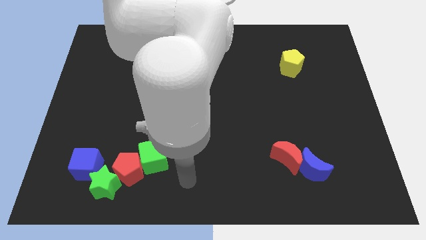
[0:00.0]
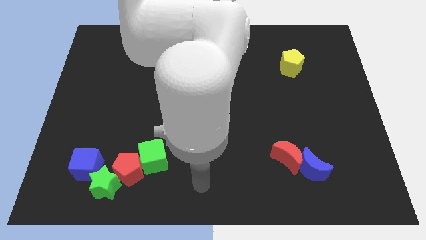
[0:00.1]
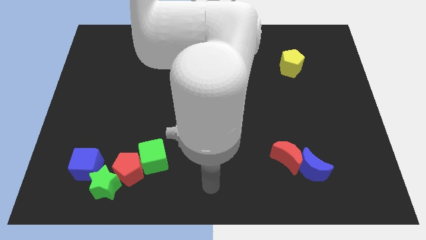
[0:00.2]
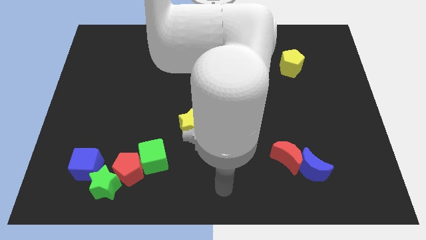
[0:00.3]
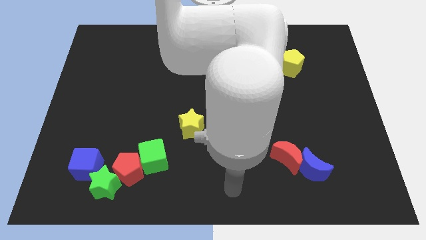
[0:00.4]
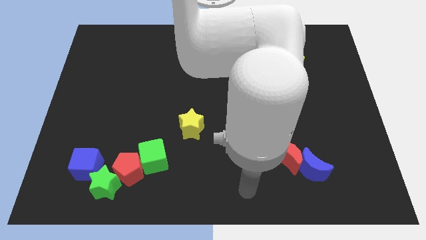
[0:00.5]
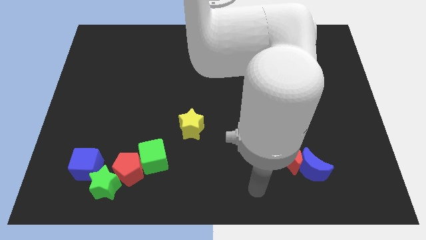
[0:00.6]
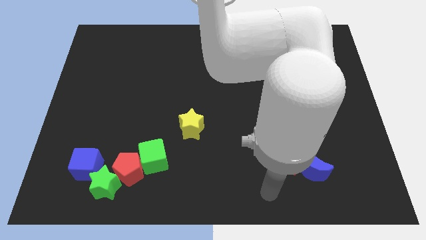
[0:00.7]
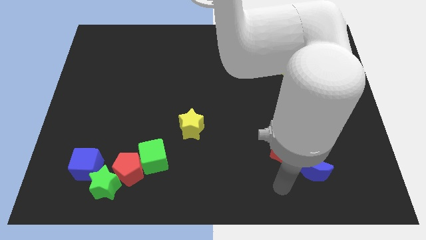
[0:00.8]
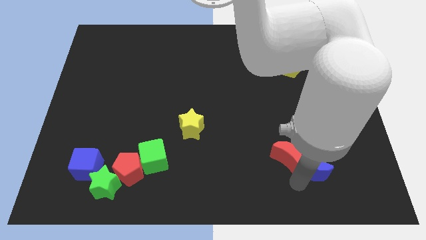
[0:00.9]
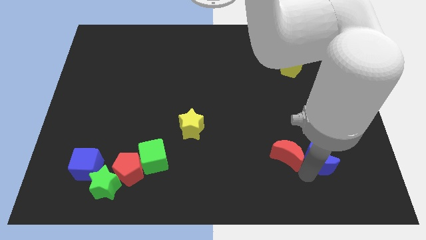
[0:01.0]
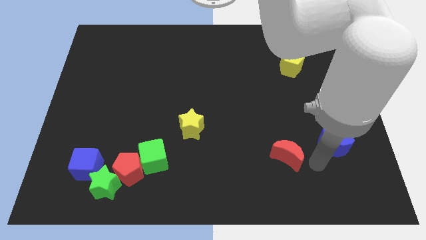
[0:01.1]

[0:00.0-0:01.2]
separate the red moon from the blue moon

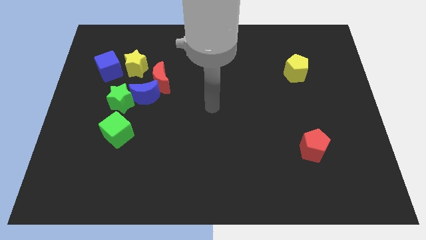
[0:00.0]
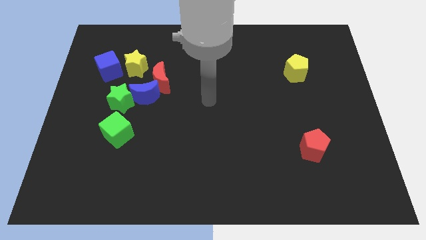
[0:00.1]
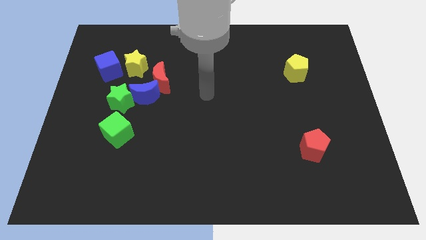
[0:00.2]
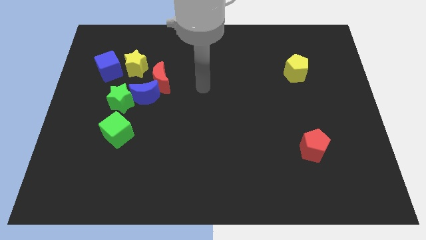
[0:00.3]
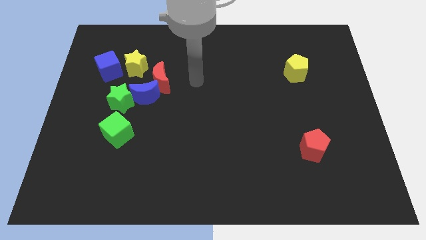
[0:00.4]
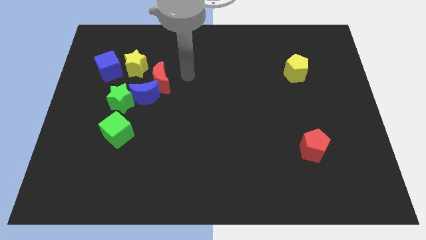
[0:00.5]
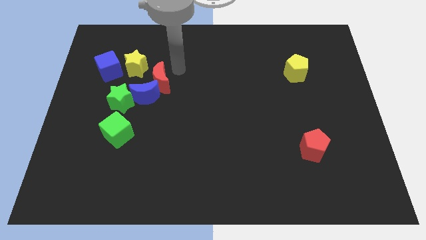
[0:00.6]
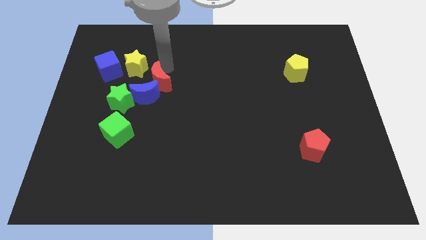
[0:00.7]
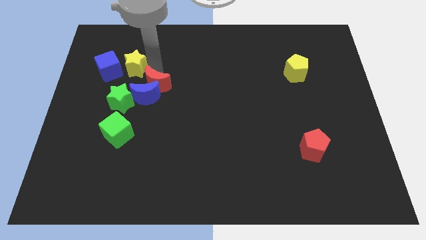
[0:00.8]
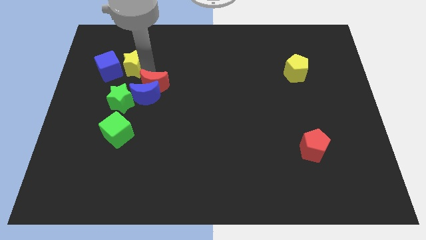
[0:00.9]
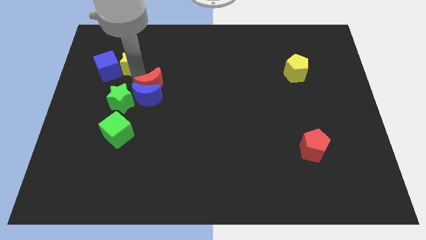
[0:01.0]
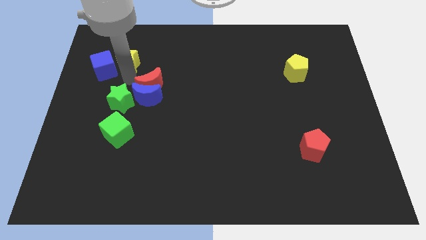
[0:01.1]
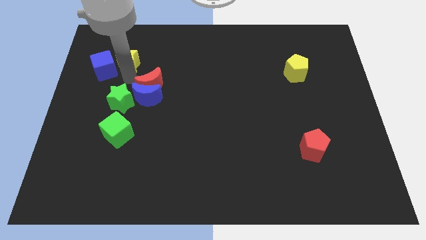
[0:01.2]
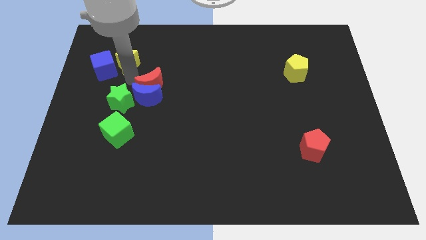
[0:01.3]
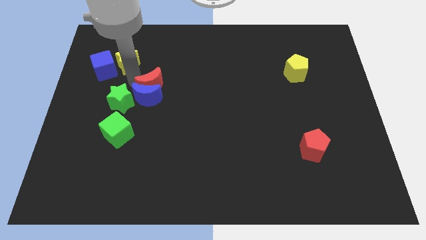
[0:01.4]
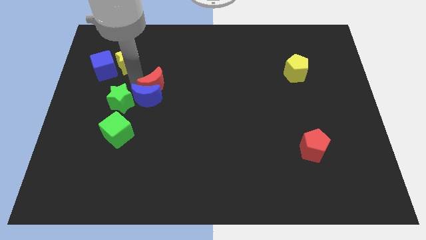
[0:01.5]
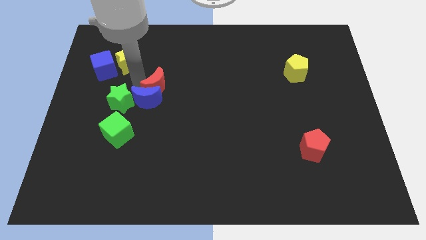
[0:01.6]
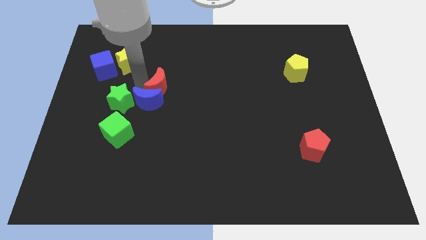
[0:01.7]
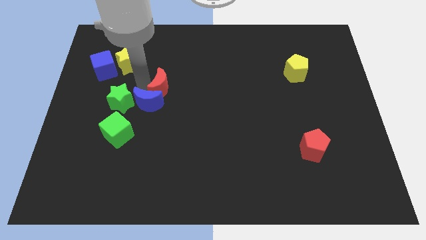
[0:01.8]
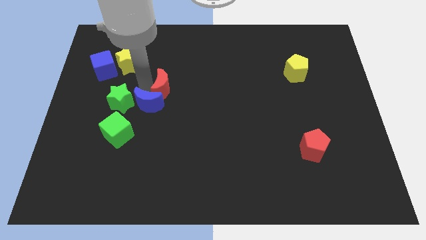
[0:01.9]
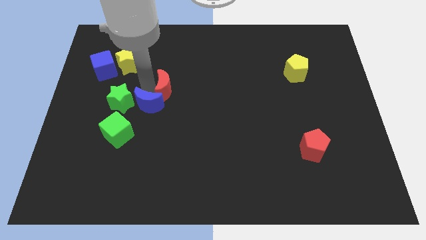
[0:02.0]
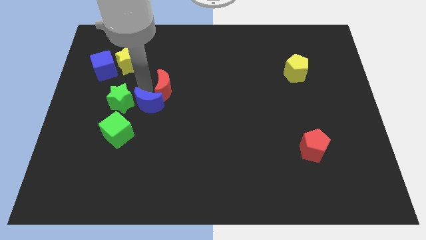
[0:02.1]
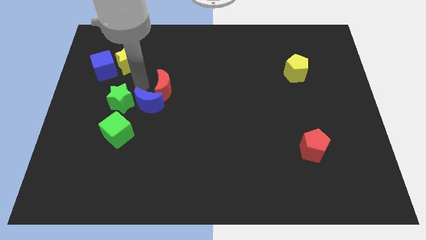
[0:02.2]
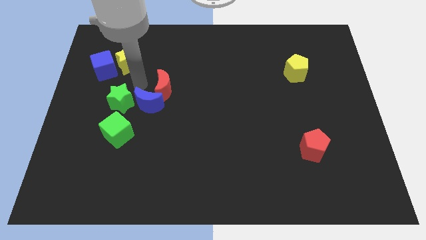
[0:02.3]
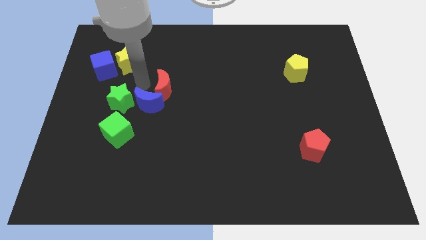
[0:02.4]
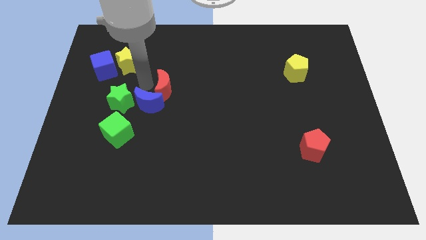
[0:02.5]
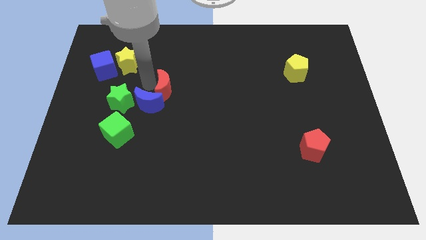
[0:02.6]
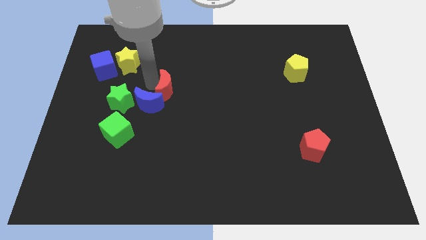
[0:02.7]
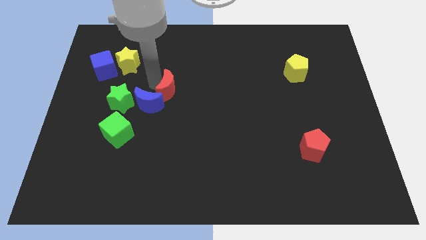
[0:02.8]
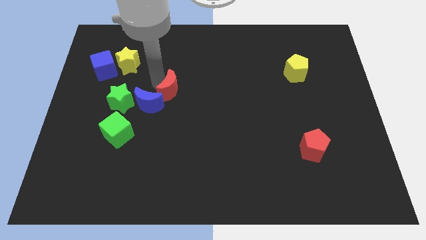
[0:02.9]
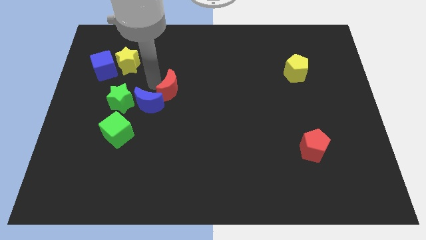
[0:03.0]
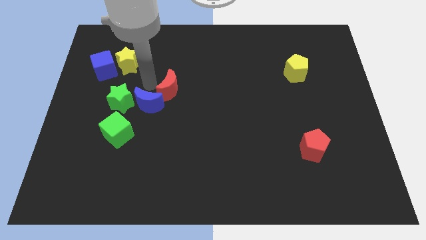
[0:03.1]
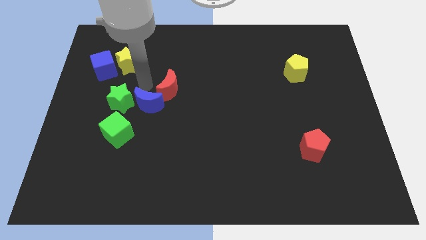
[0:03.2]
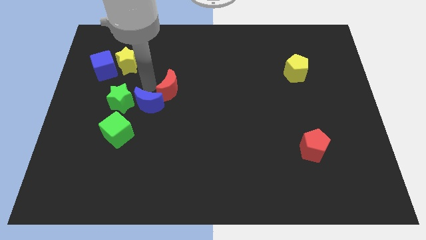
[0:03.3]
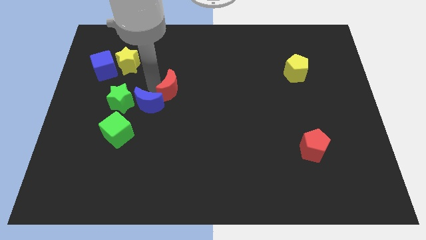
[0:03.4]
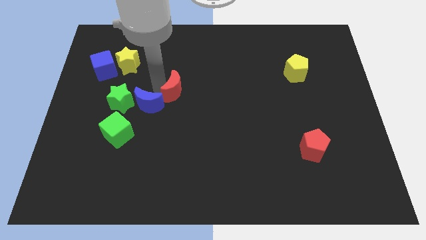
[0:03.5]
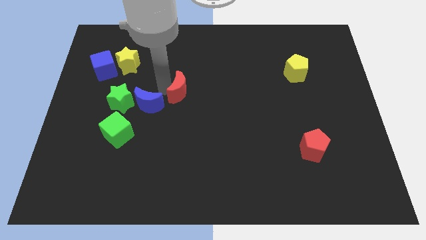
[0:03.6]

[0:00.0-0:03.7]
pull the red moon apart from the blue moon and yellow star

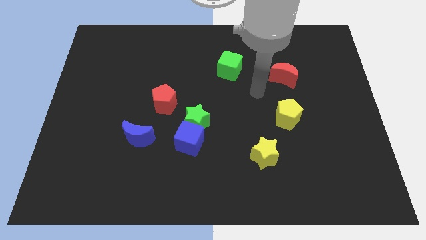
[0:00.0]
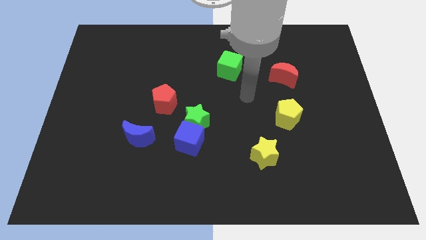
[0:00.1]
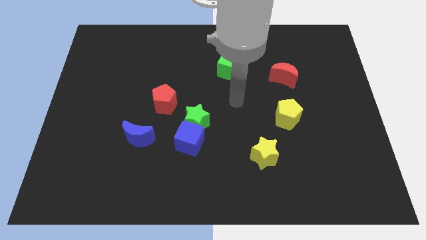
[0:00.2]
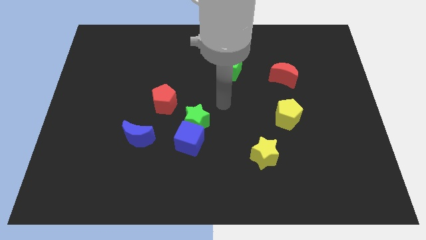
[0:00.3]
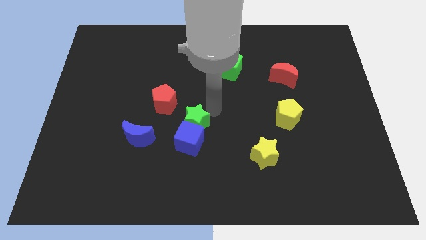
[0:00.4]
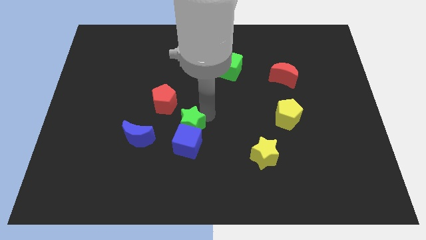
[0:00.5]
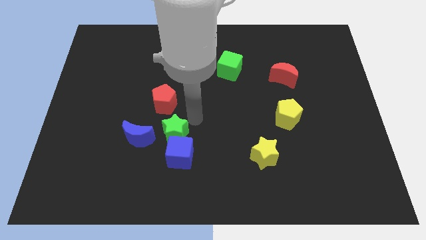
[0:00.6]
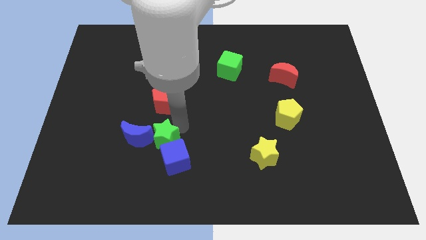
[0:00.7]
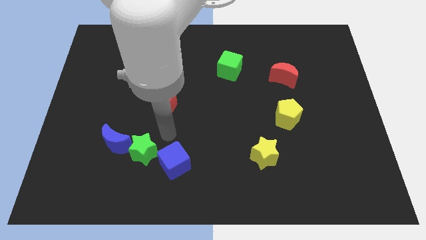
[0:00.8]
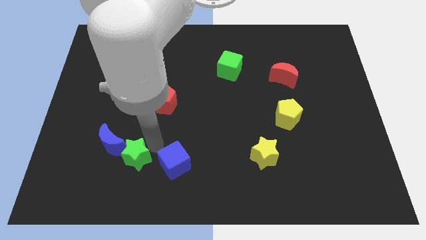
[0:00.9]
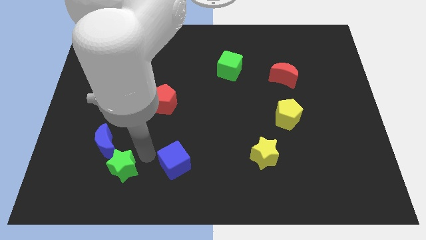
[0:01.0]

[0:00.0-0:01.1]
separate the blue cube from the green star

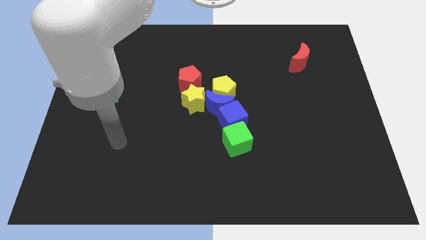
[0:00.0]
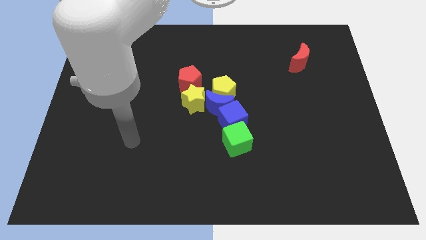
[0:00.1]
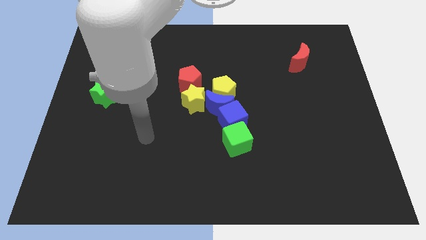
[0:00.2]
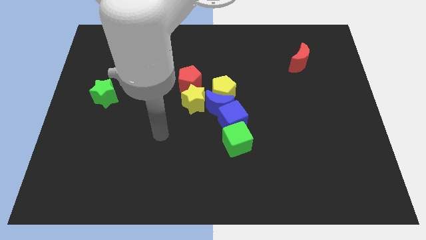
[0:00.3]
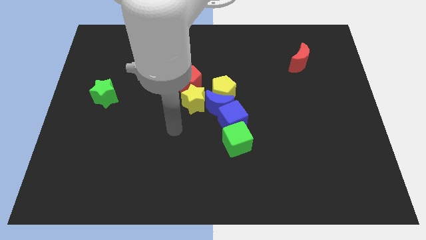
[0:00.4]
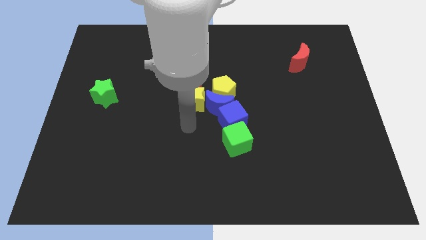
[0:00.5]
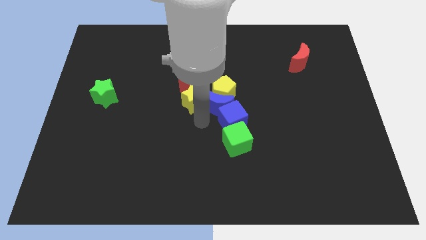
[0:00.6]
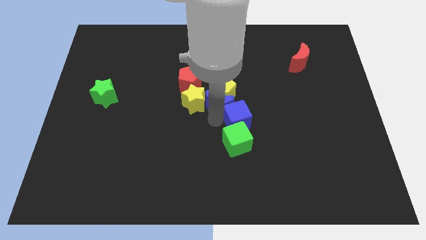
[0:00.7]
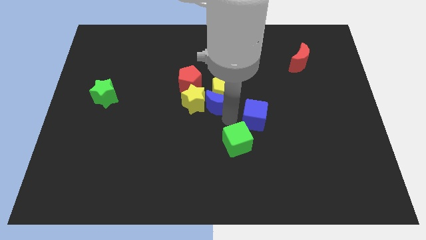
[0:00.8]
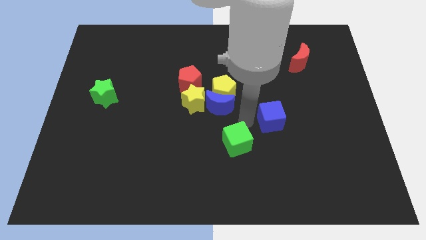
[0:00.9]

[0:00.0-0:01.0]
separate the green cube from the blue cube

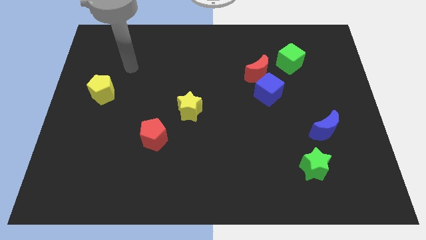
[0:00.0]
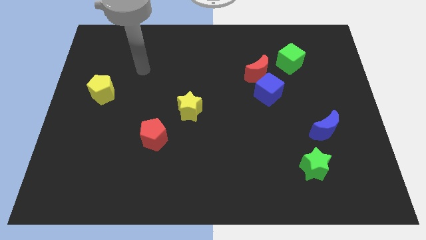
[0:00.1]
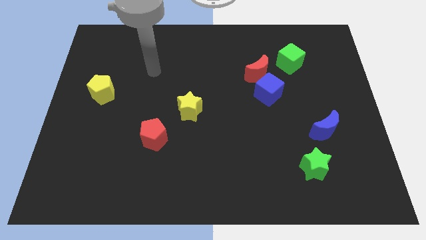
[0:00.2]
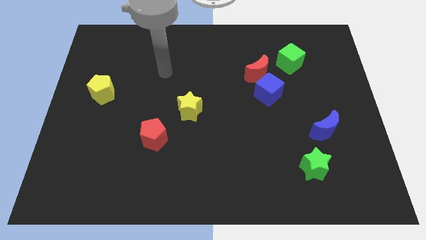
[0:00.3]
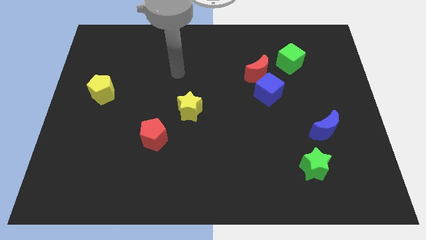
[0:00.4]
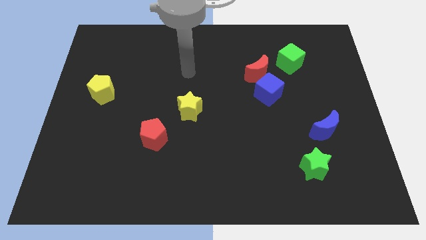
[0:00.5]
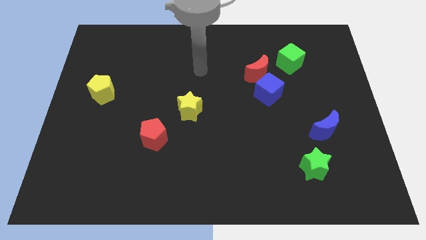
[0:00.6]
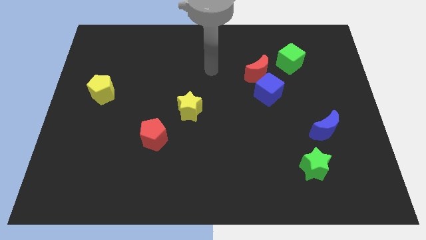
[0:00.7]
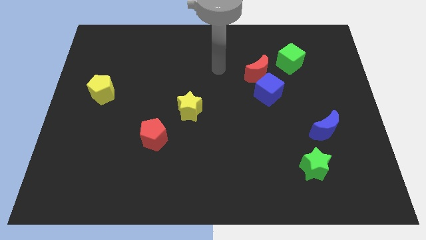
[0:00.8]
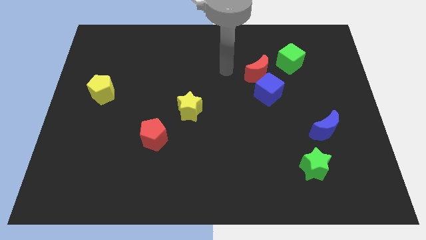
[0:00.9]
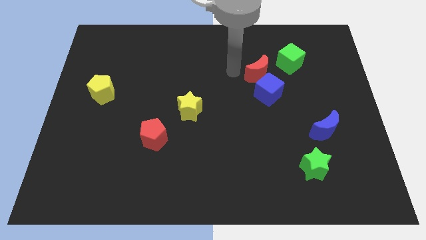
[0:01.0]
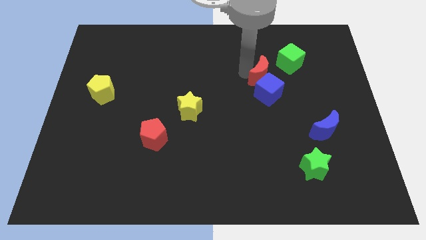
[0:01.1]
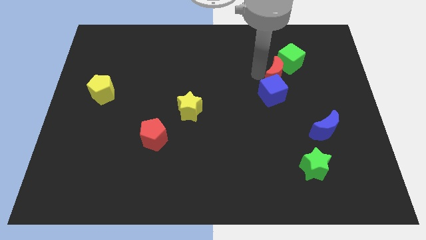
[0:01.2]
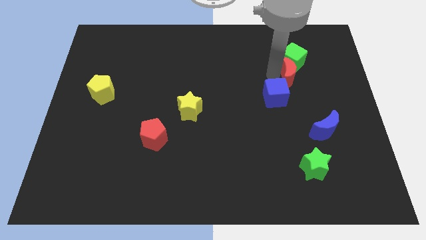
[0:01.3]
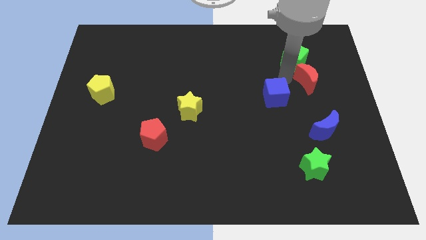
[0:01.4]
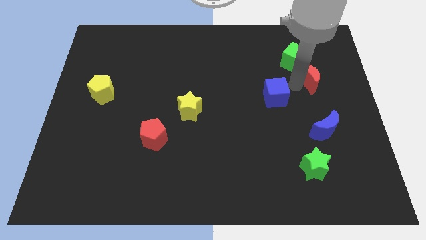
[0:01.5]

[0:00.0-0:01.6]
move the blue cube away from the red moon

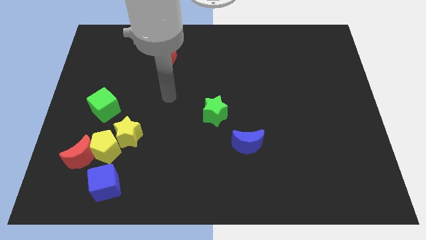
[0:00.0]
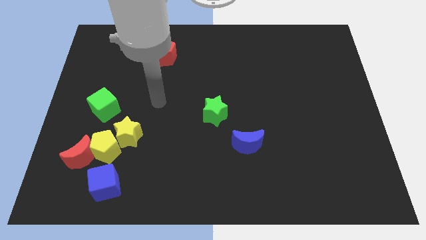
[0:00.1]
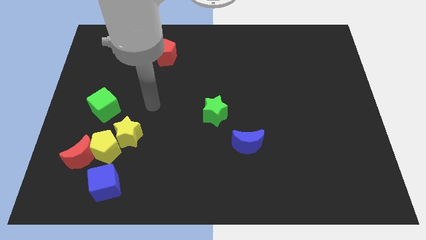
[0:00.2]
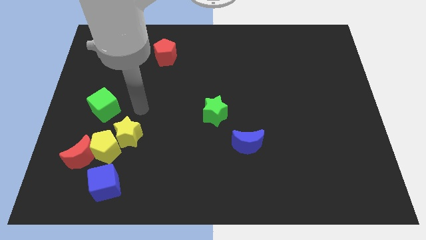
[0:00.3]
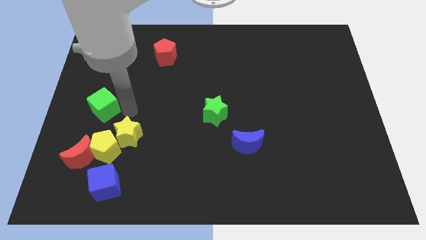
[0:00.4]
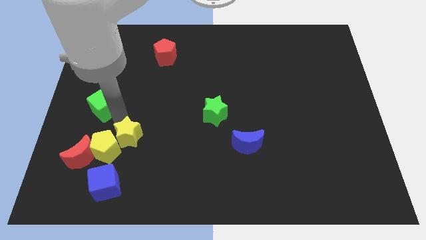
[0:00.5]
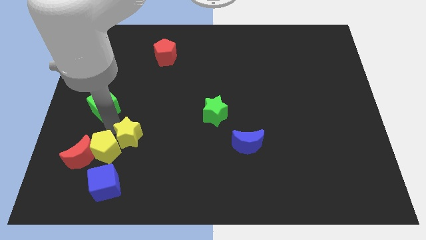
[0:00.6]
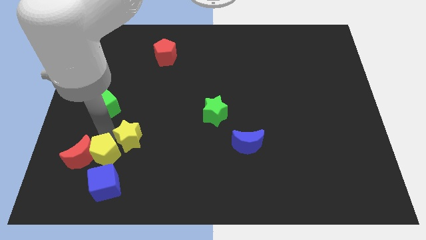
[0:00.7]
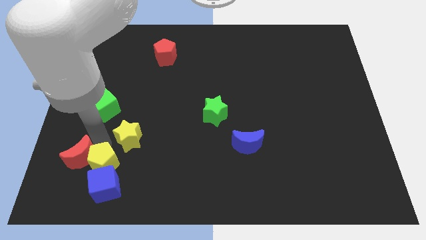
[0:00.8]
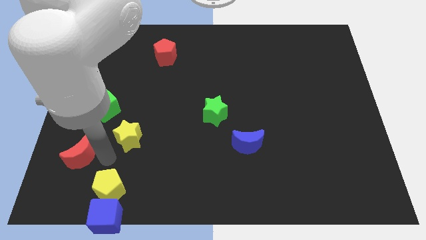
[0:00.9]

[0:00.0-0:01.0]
separate the yellow star from the yellow pentagon
